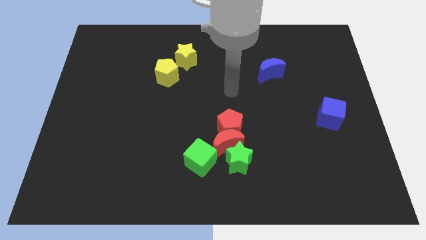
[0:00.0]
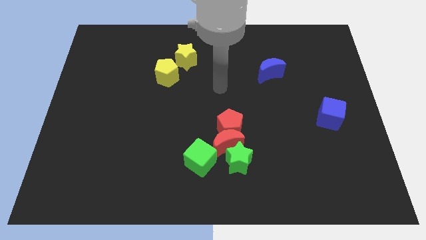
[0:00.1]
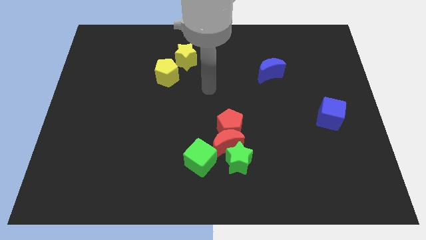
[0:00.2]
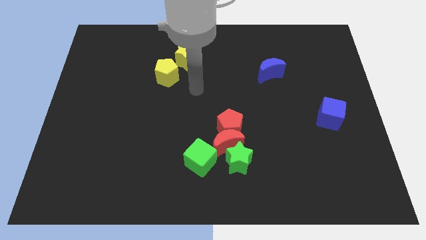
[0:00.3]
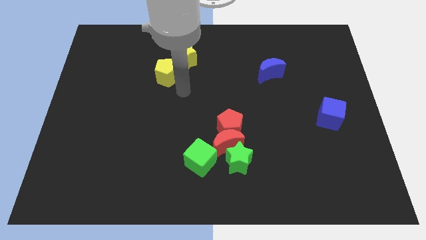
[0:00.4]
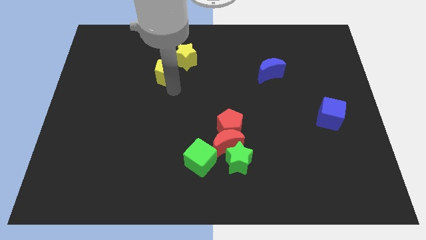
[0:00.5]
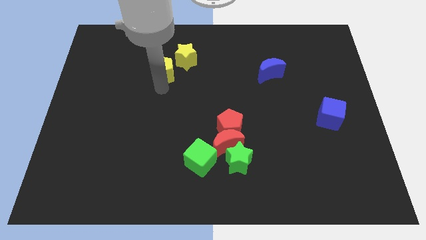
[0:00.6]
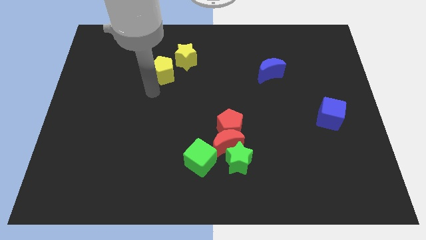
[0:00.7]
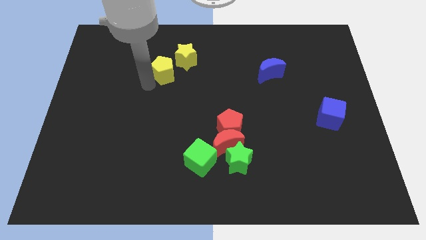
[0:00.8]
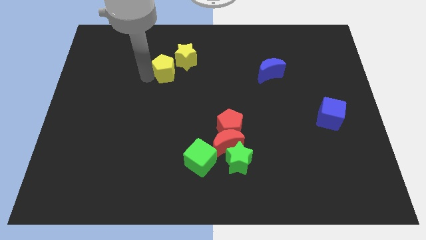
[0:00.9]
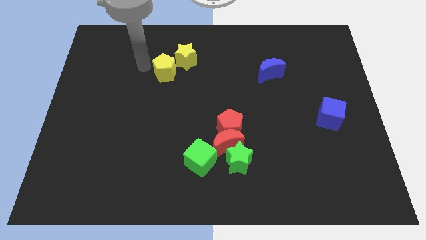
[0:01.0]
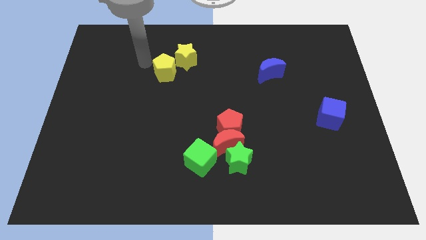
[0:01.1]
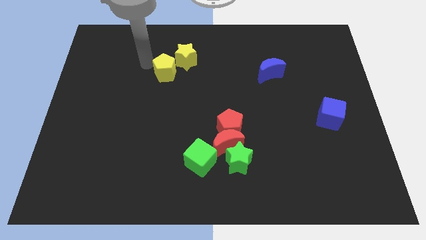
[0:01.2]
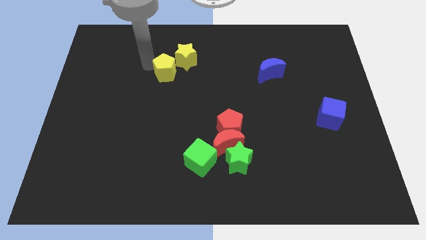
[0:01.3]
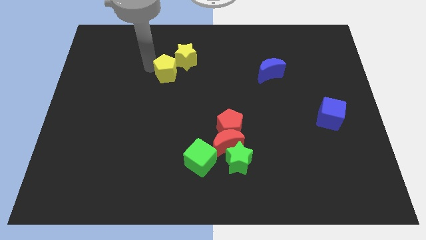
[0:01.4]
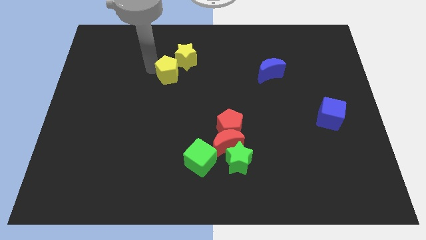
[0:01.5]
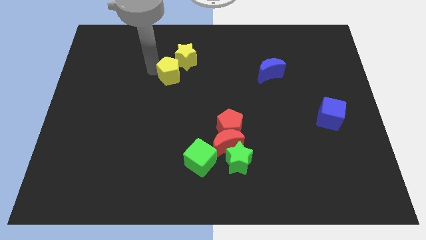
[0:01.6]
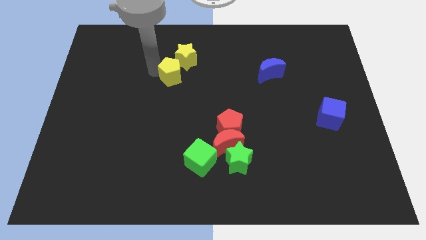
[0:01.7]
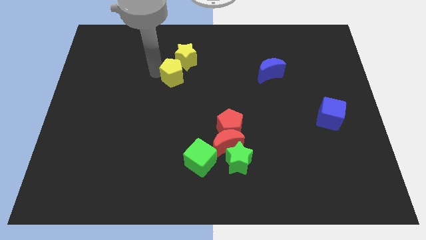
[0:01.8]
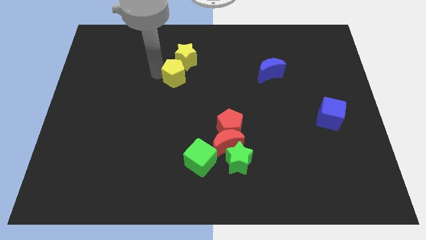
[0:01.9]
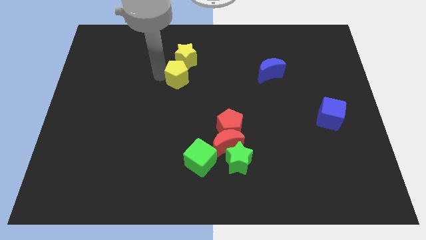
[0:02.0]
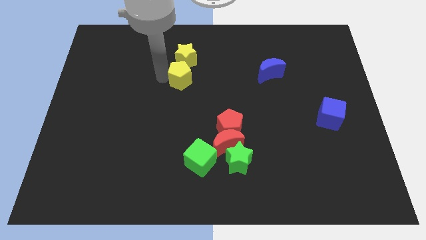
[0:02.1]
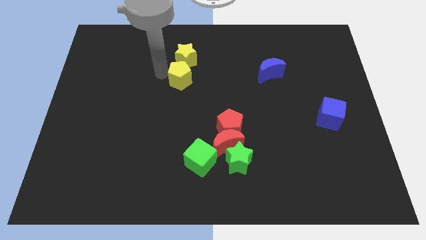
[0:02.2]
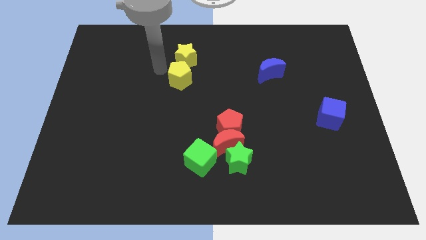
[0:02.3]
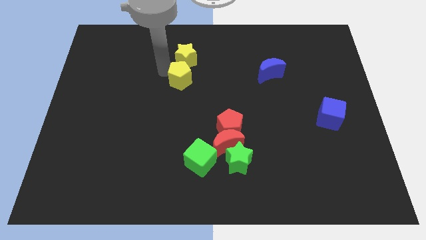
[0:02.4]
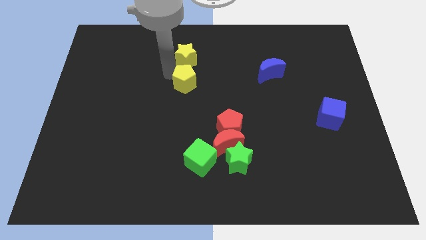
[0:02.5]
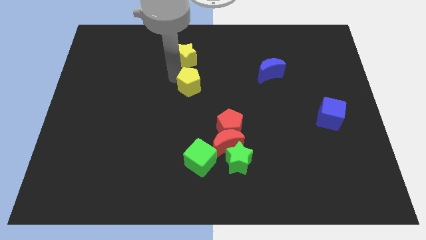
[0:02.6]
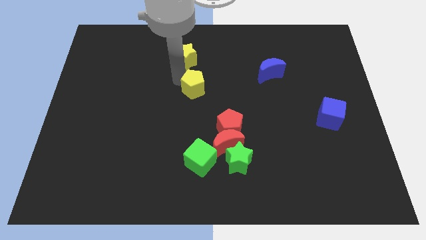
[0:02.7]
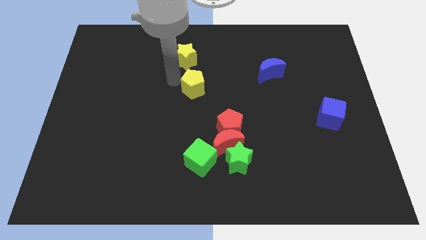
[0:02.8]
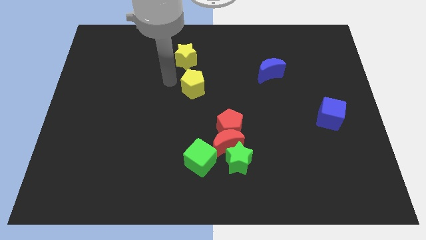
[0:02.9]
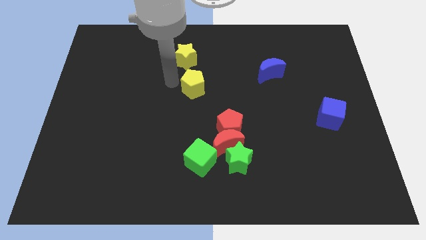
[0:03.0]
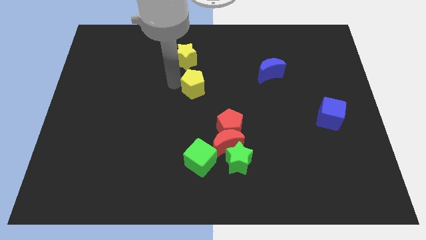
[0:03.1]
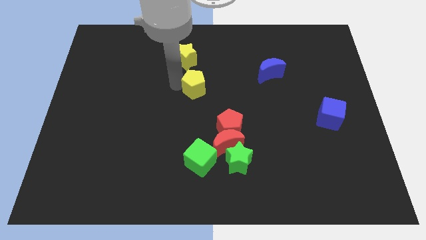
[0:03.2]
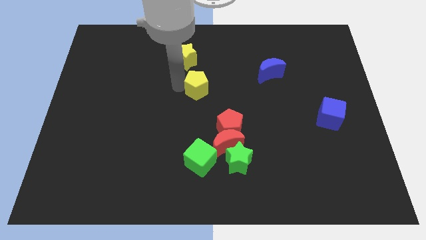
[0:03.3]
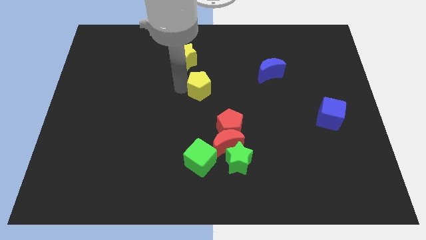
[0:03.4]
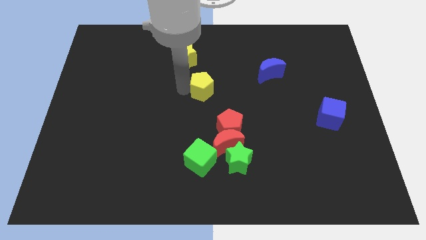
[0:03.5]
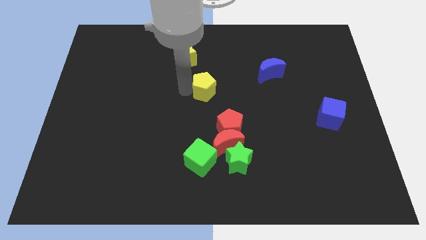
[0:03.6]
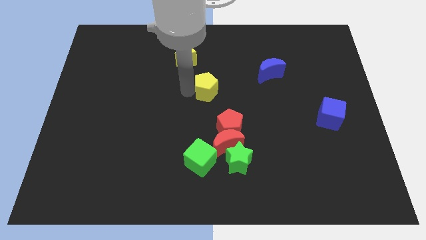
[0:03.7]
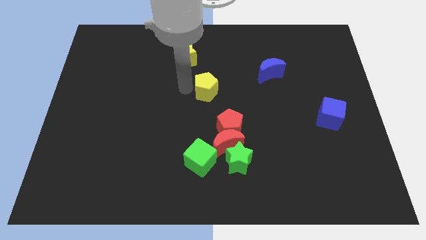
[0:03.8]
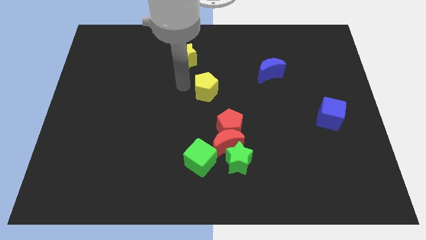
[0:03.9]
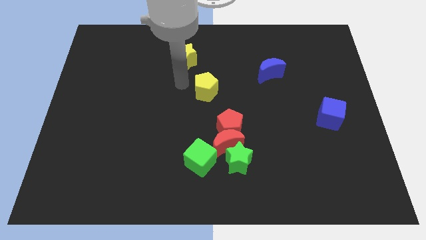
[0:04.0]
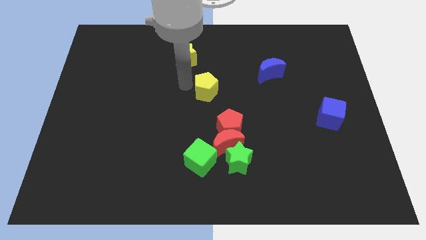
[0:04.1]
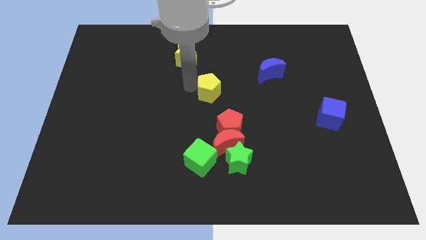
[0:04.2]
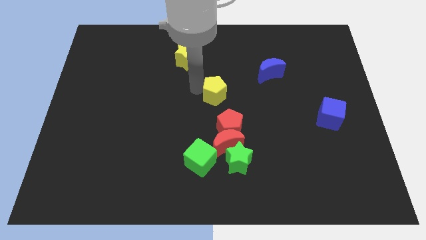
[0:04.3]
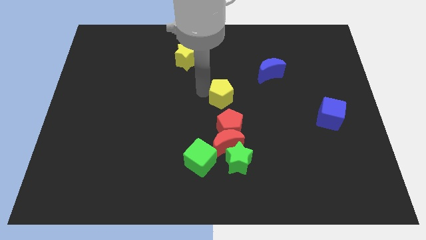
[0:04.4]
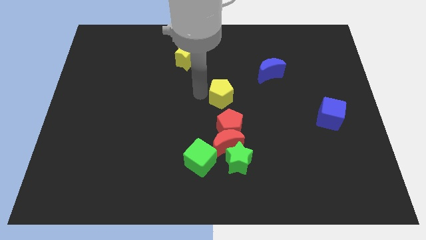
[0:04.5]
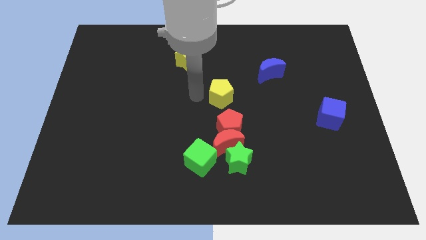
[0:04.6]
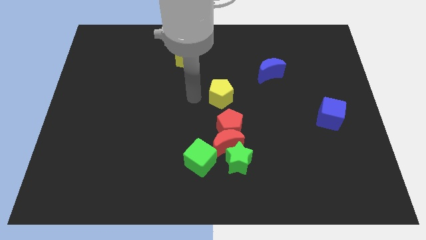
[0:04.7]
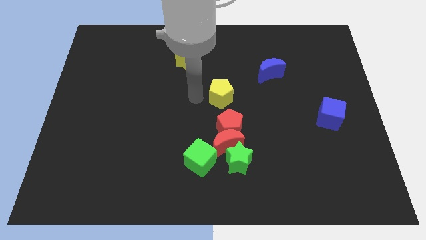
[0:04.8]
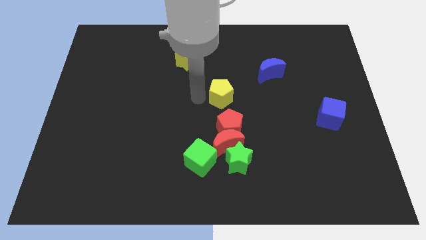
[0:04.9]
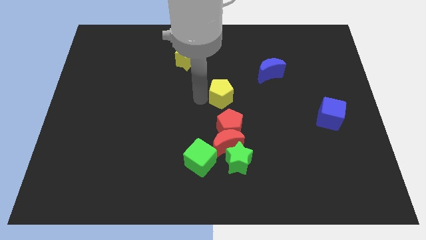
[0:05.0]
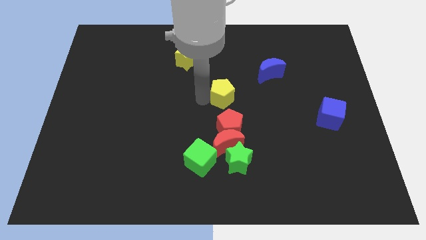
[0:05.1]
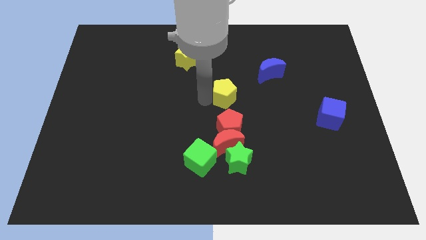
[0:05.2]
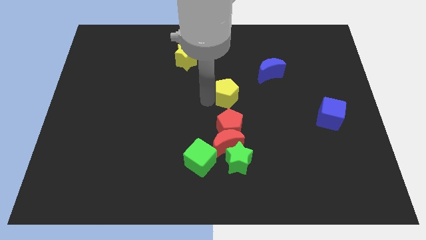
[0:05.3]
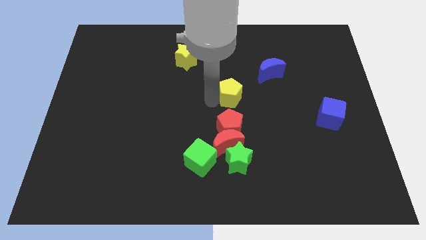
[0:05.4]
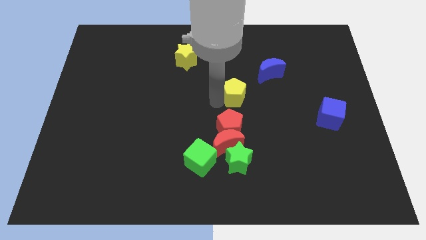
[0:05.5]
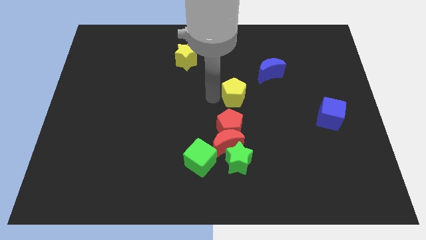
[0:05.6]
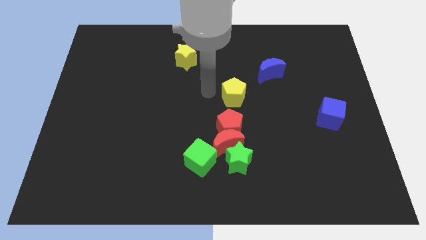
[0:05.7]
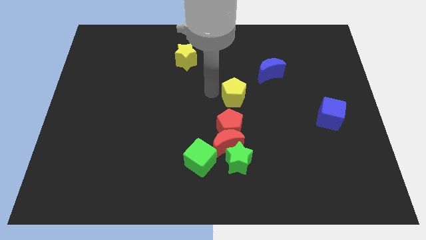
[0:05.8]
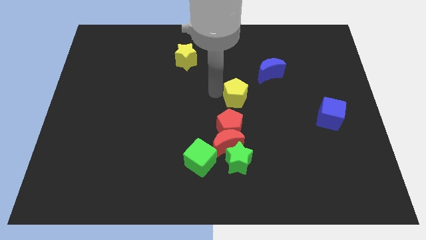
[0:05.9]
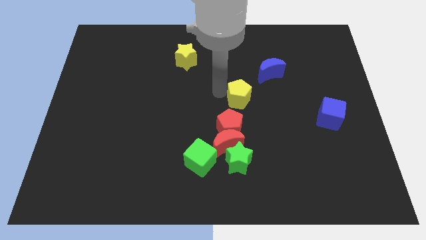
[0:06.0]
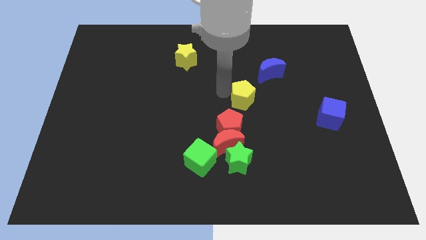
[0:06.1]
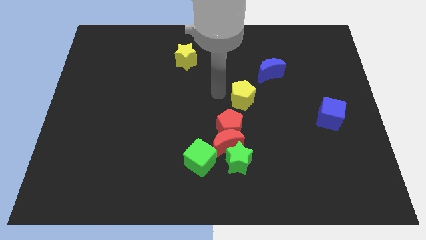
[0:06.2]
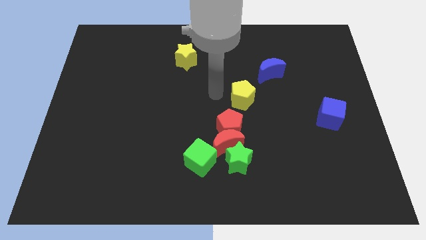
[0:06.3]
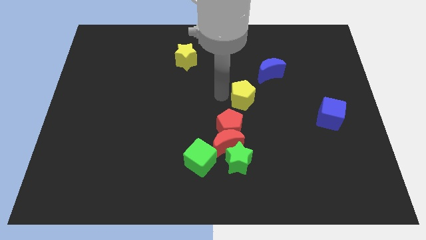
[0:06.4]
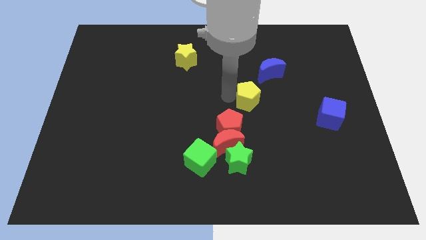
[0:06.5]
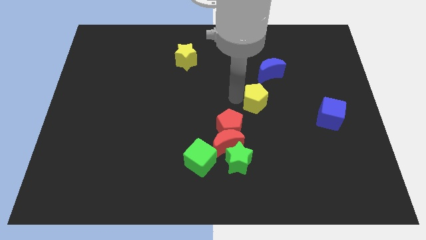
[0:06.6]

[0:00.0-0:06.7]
push the yellow pentagon to the bottom of the blue moon

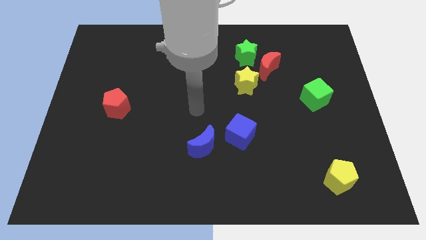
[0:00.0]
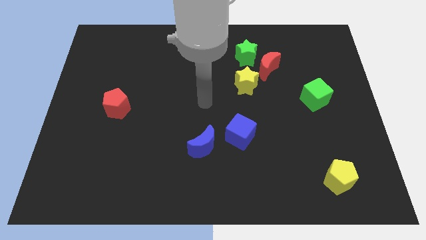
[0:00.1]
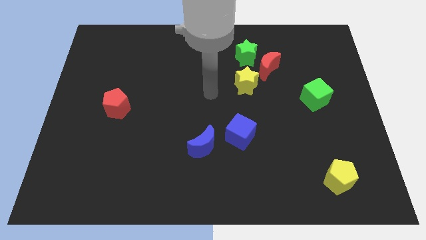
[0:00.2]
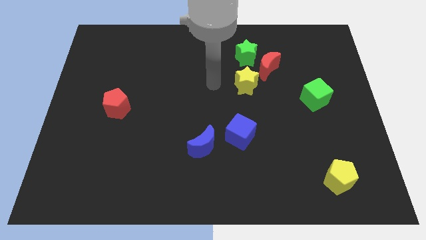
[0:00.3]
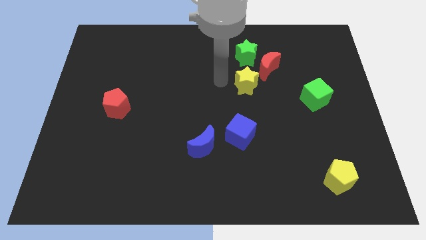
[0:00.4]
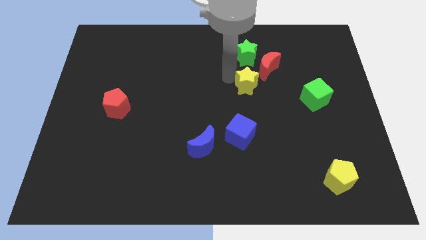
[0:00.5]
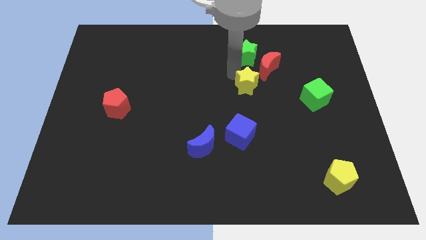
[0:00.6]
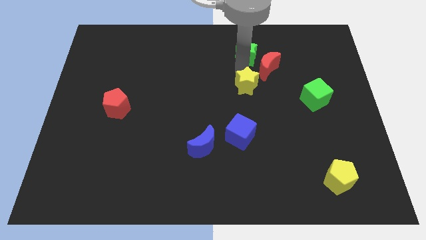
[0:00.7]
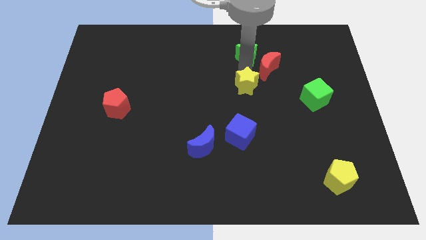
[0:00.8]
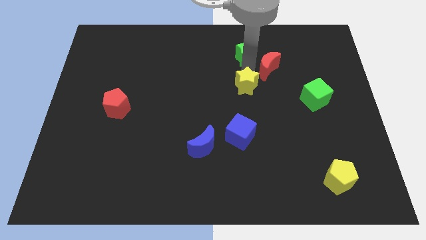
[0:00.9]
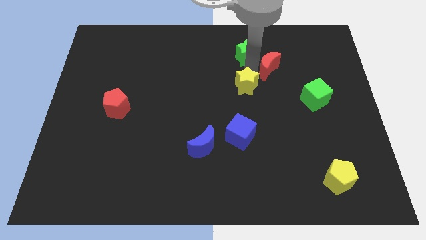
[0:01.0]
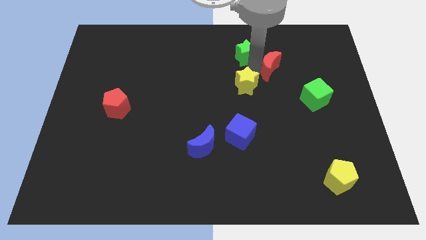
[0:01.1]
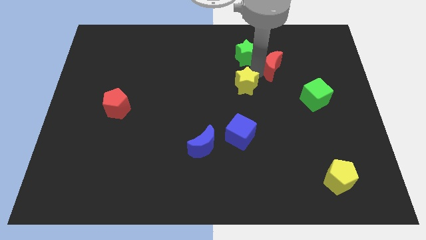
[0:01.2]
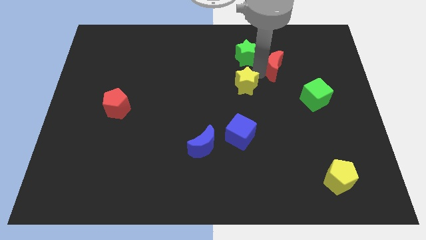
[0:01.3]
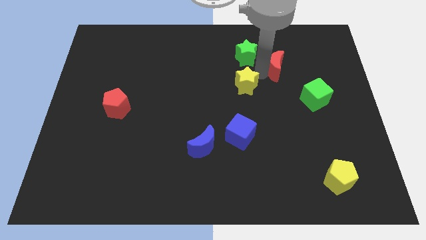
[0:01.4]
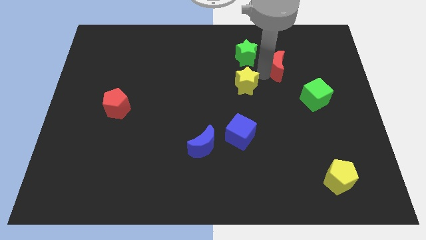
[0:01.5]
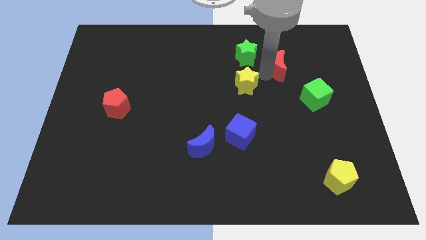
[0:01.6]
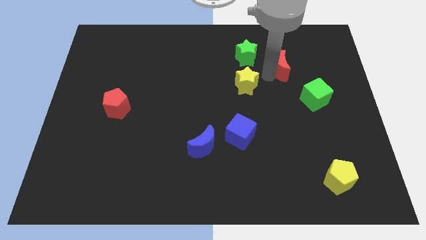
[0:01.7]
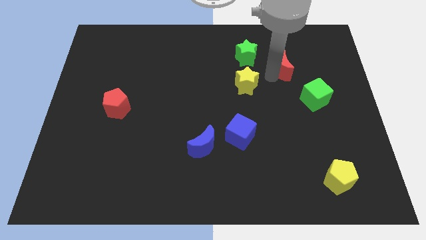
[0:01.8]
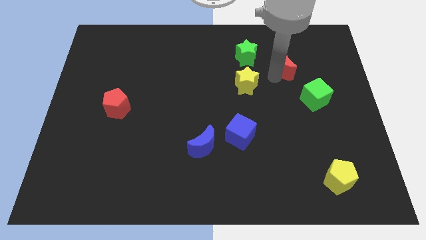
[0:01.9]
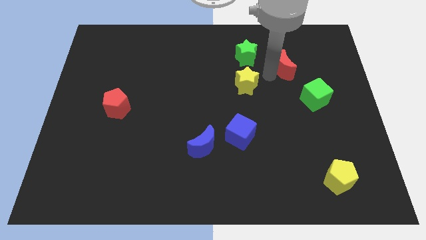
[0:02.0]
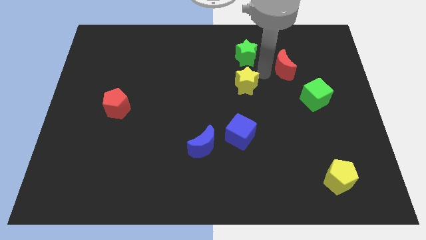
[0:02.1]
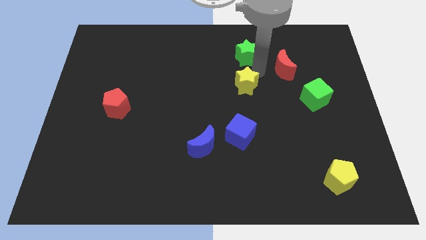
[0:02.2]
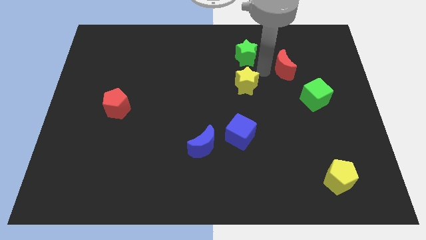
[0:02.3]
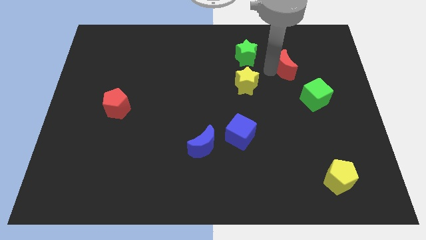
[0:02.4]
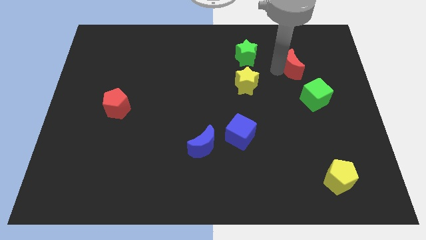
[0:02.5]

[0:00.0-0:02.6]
push the red moon to the top of the green cube
